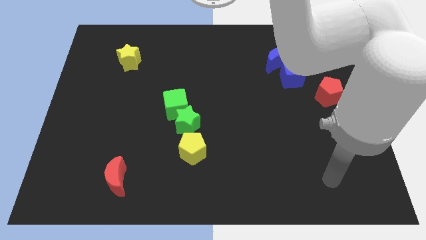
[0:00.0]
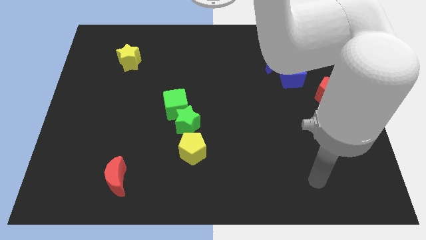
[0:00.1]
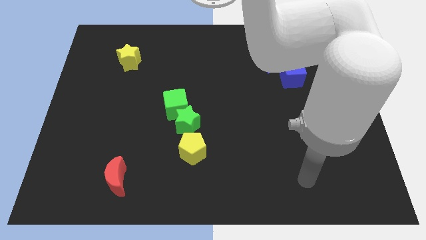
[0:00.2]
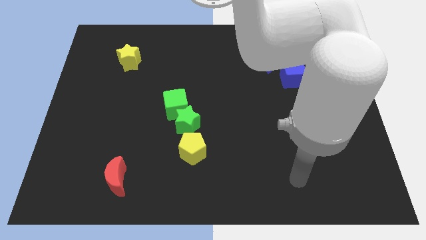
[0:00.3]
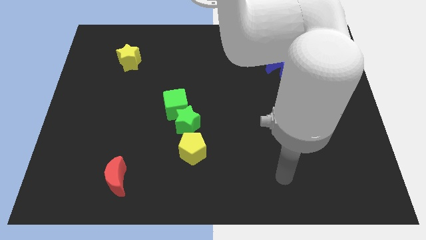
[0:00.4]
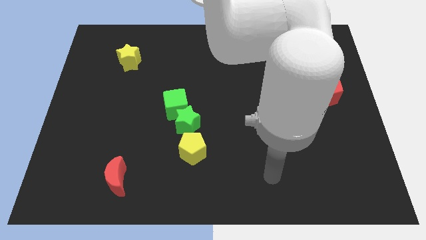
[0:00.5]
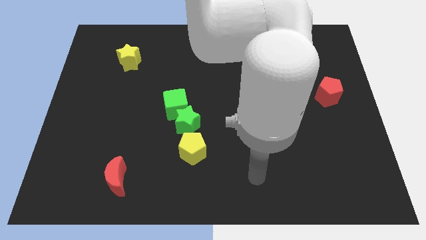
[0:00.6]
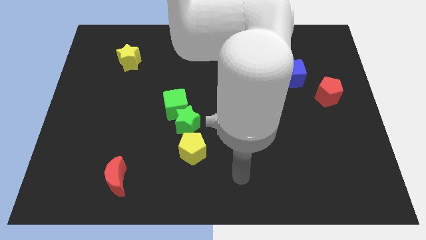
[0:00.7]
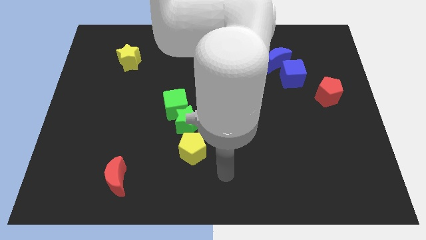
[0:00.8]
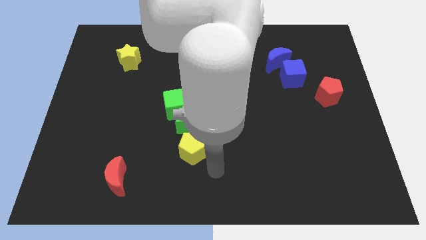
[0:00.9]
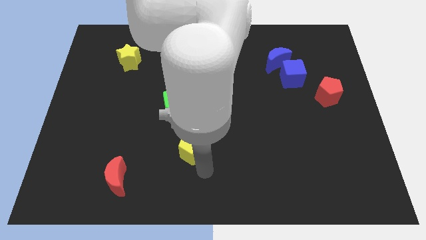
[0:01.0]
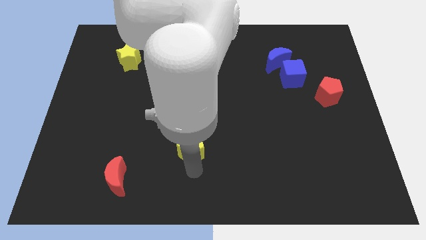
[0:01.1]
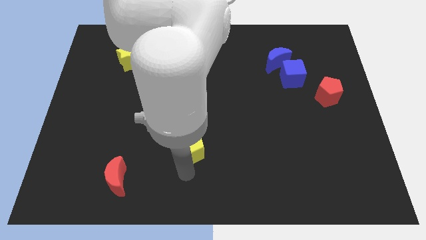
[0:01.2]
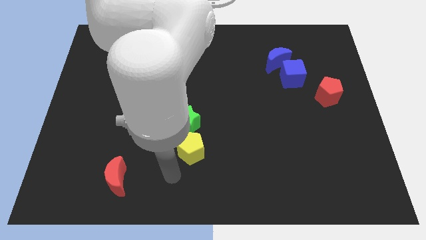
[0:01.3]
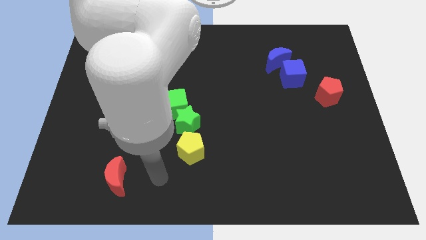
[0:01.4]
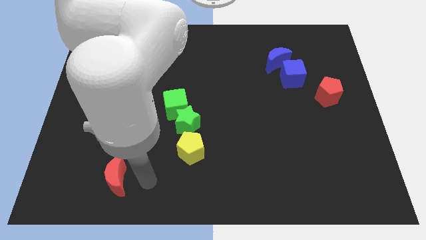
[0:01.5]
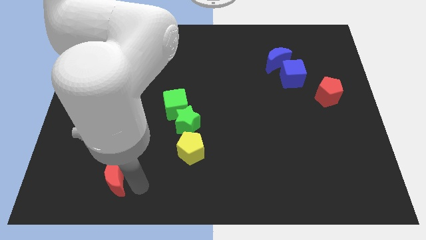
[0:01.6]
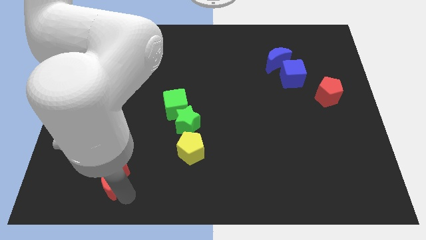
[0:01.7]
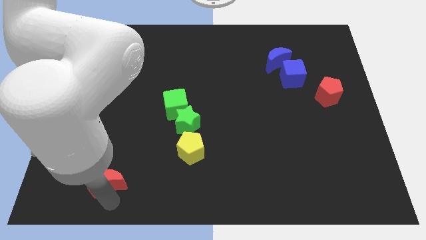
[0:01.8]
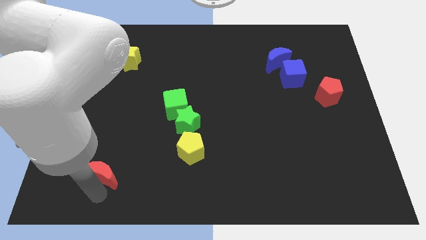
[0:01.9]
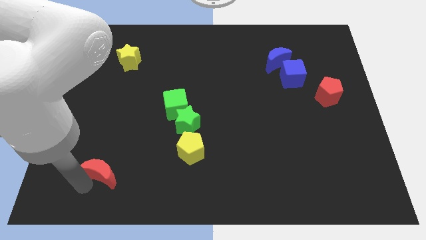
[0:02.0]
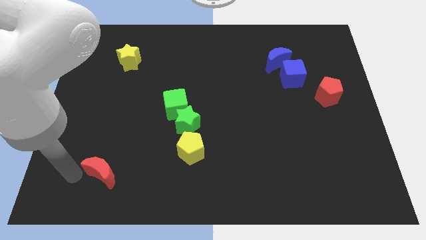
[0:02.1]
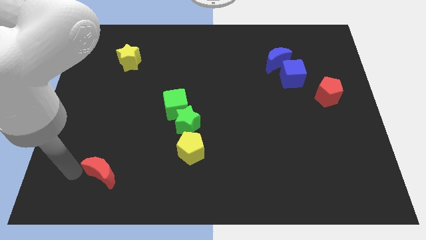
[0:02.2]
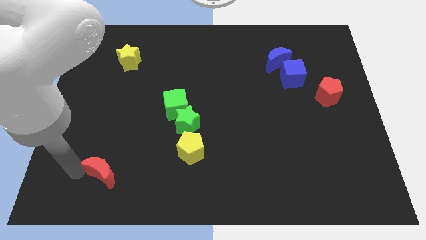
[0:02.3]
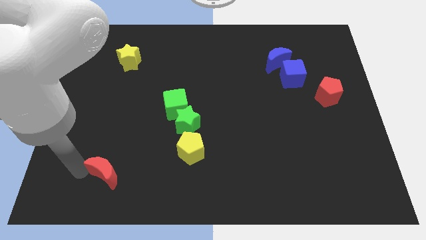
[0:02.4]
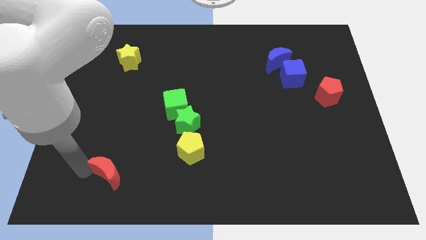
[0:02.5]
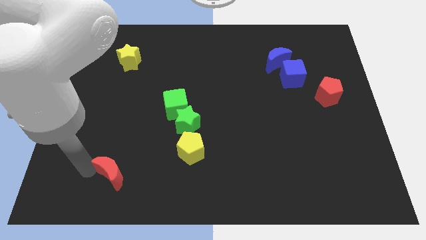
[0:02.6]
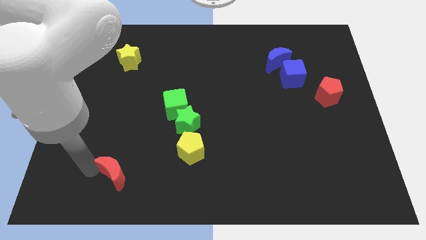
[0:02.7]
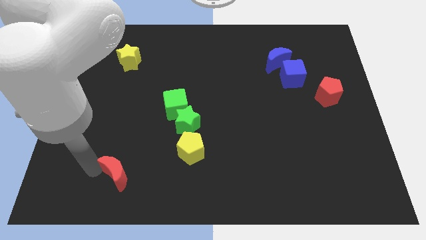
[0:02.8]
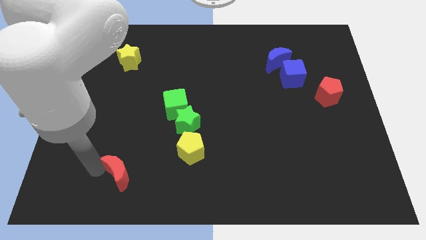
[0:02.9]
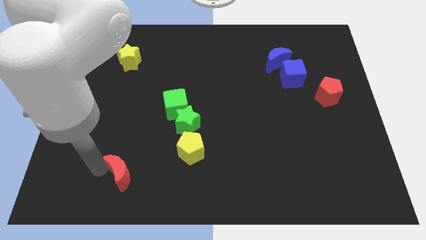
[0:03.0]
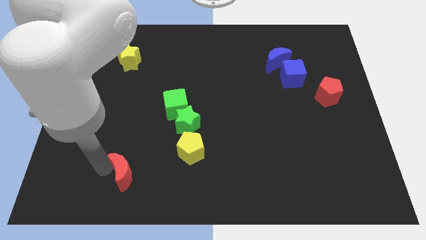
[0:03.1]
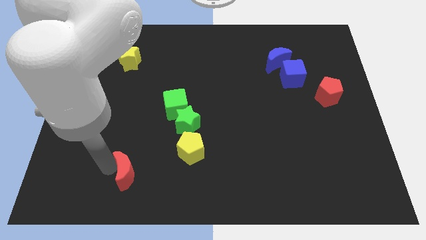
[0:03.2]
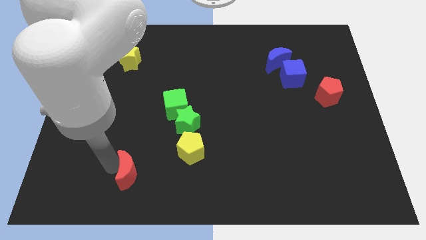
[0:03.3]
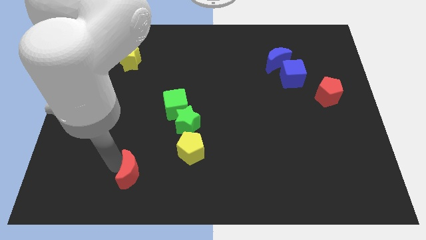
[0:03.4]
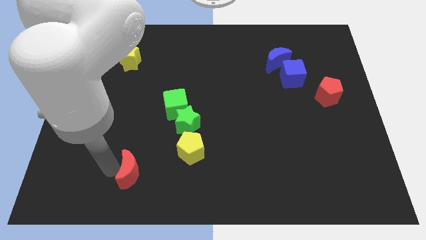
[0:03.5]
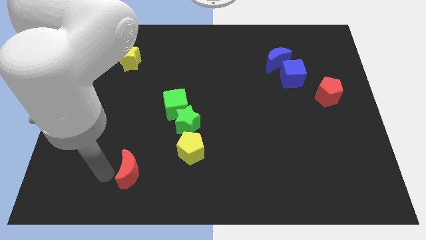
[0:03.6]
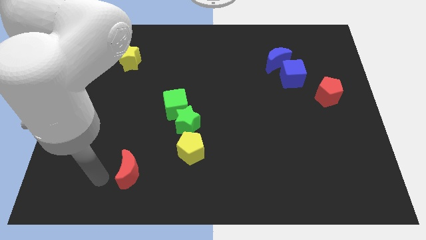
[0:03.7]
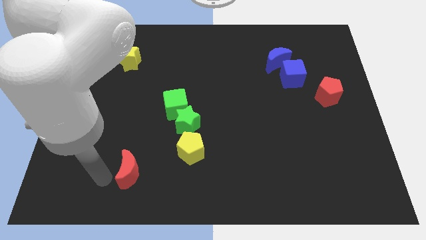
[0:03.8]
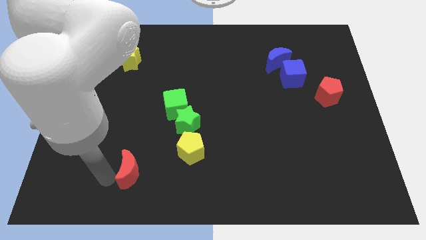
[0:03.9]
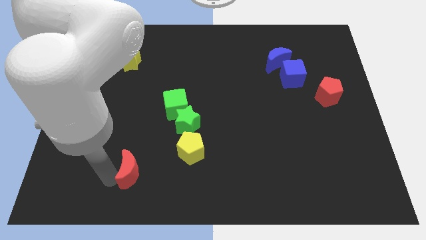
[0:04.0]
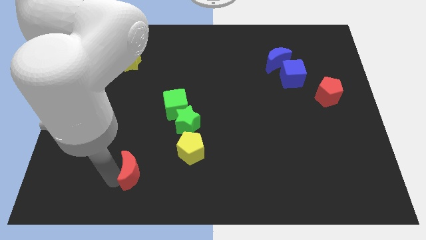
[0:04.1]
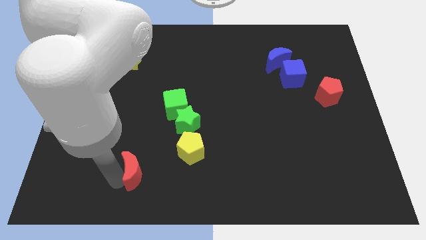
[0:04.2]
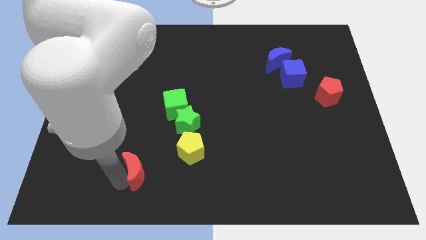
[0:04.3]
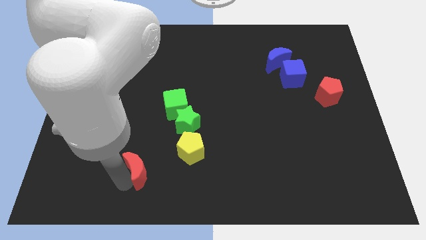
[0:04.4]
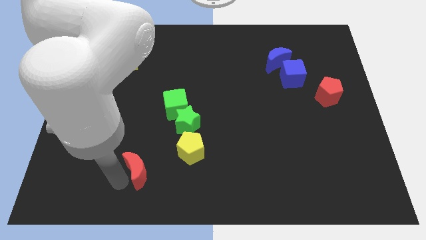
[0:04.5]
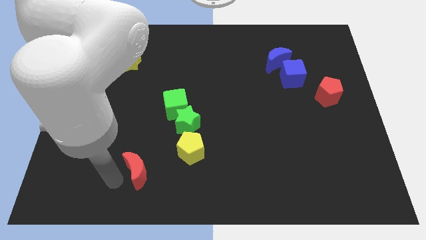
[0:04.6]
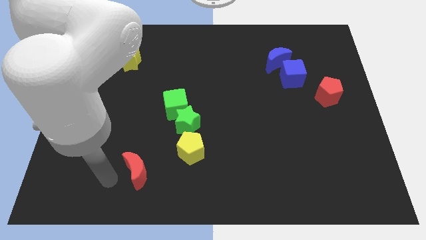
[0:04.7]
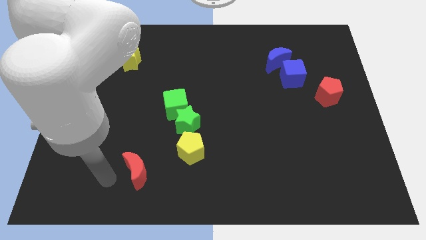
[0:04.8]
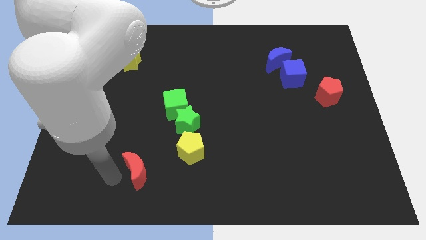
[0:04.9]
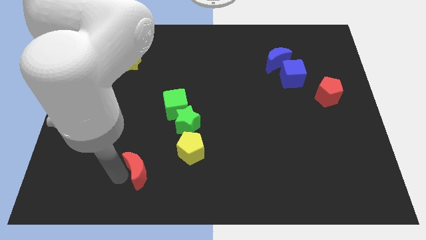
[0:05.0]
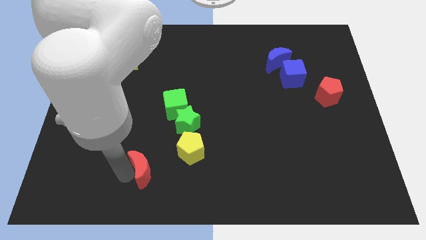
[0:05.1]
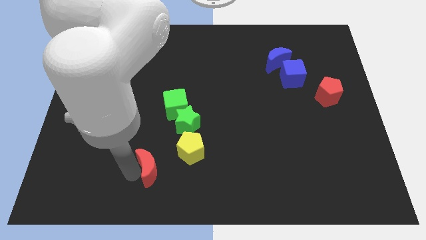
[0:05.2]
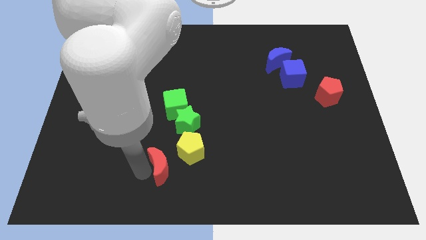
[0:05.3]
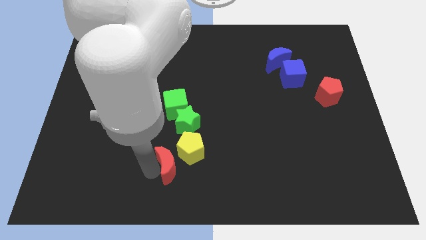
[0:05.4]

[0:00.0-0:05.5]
push the red moon to the yellow pentagon

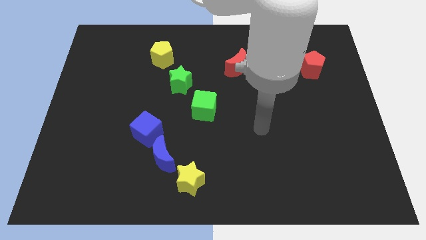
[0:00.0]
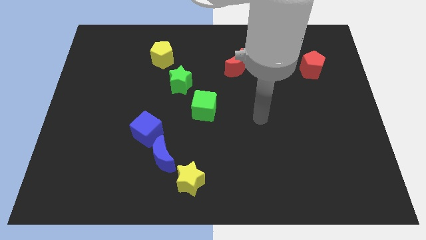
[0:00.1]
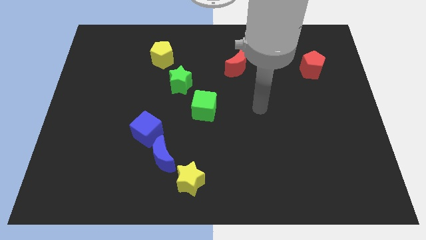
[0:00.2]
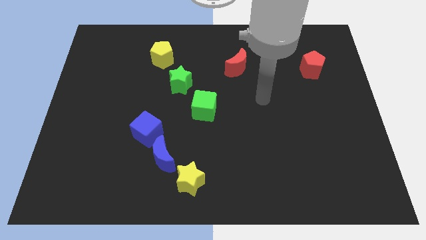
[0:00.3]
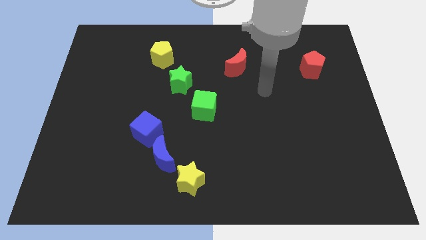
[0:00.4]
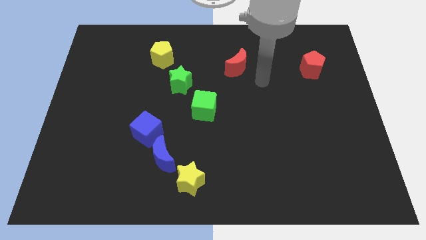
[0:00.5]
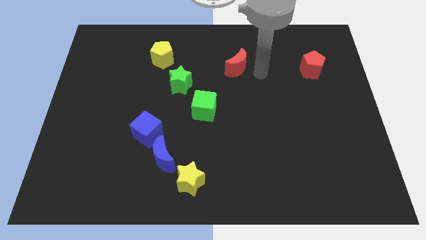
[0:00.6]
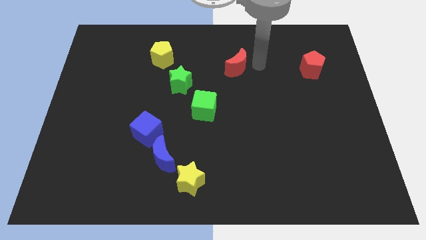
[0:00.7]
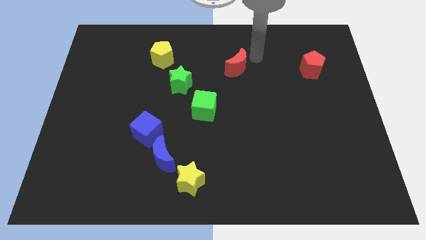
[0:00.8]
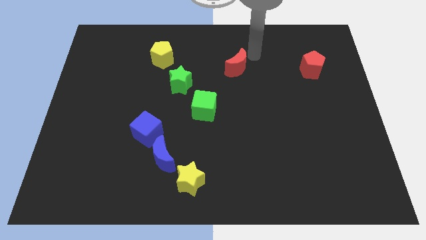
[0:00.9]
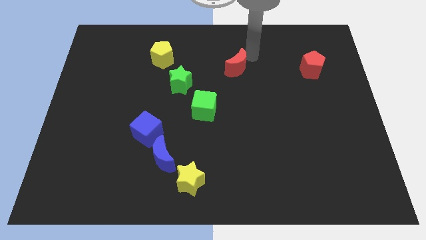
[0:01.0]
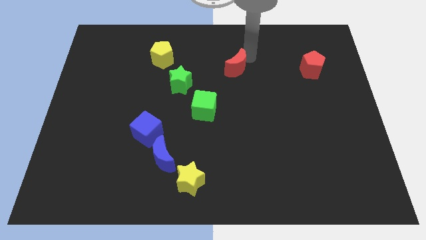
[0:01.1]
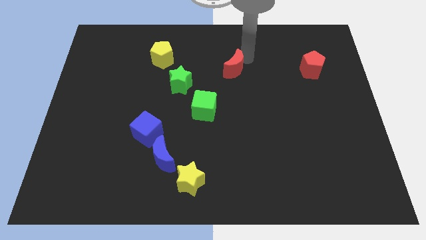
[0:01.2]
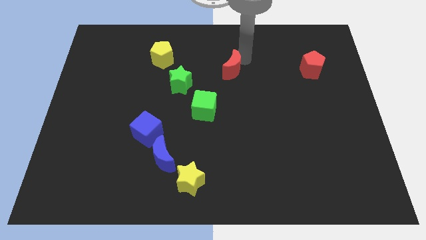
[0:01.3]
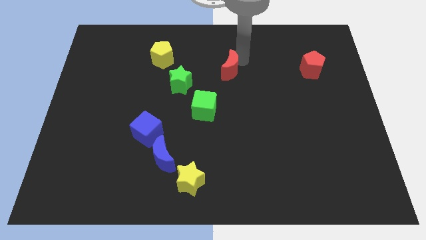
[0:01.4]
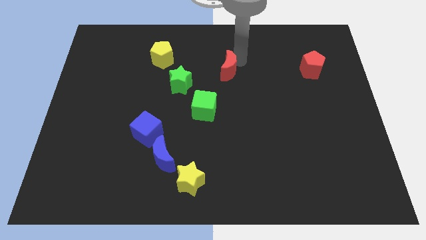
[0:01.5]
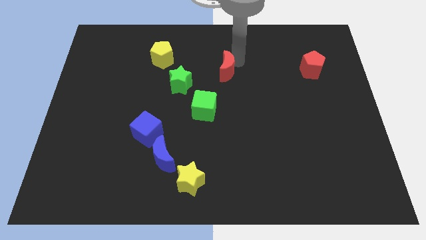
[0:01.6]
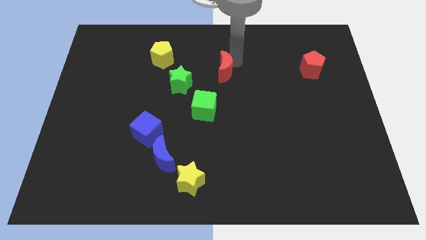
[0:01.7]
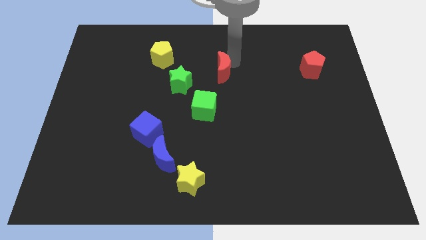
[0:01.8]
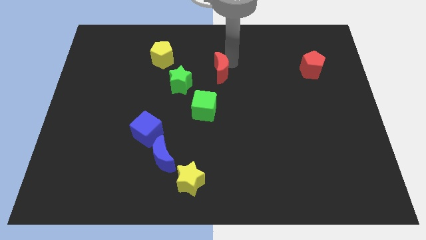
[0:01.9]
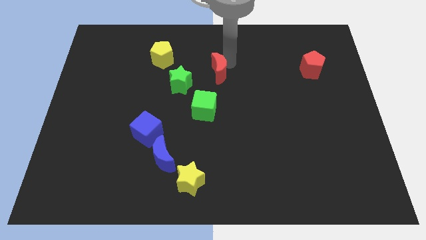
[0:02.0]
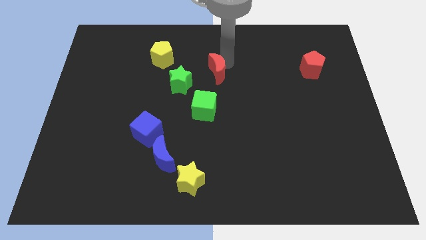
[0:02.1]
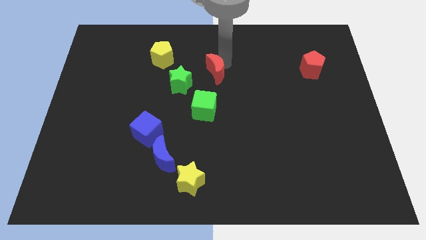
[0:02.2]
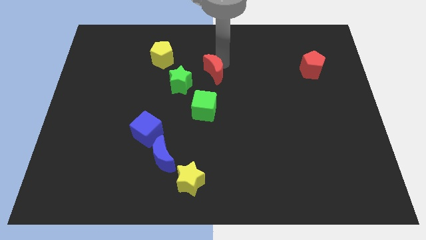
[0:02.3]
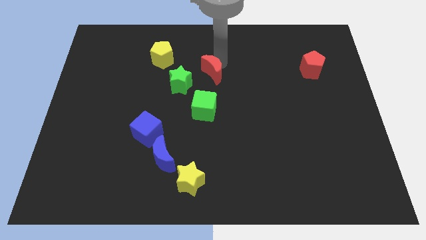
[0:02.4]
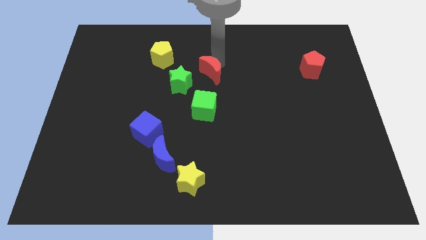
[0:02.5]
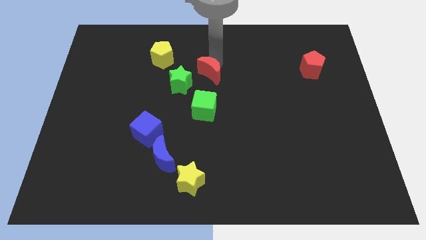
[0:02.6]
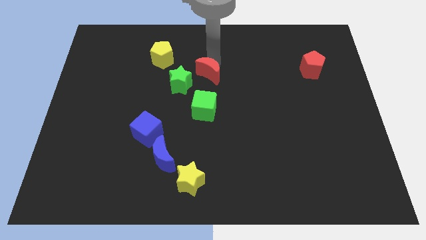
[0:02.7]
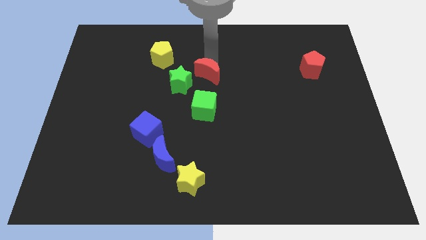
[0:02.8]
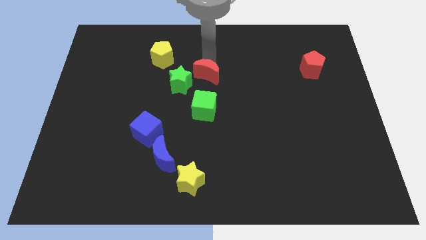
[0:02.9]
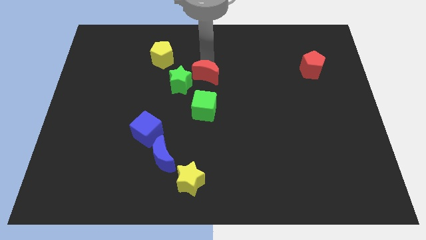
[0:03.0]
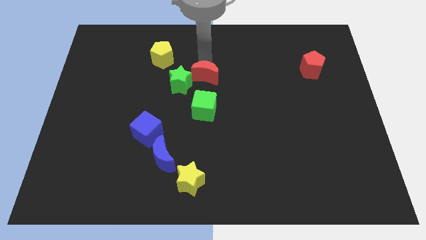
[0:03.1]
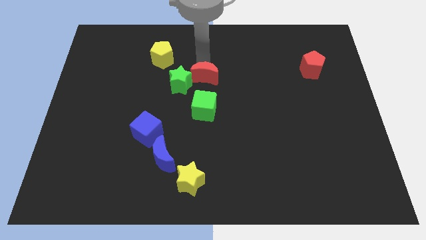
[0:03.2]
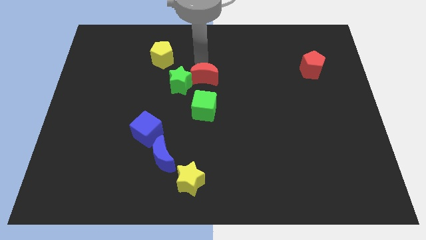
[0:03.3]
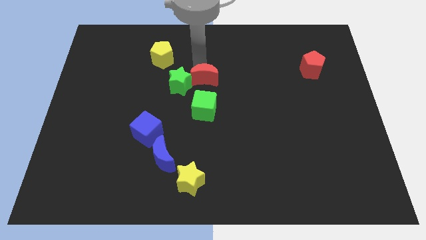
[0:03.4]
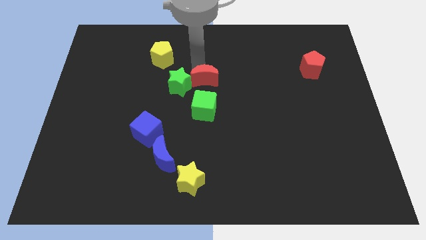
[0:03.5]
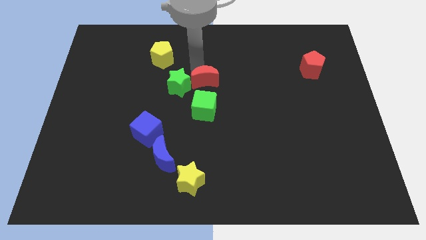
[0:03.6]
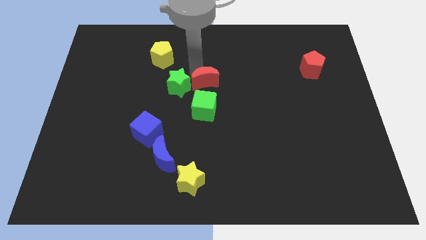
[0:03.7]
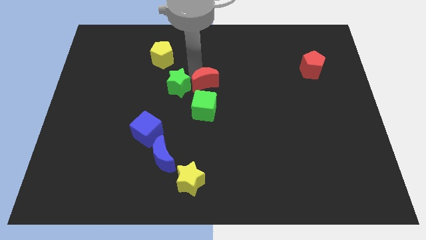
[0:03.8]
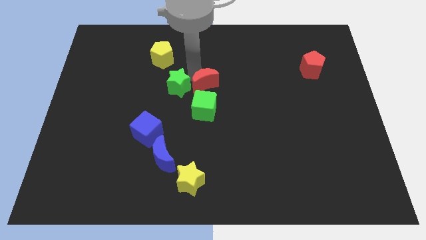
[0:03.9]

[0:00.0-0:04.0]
push the red moon next to the green star
